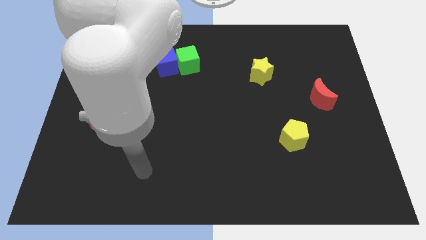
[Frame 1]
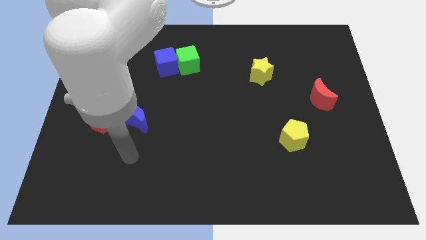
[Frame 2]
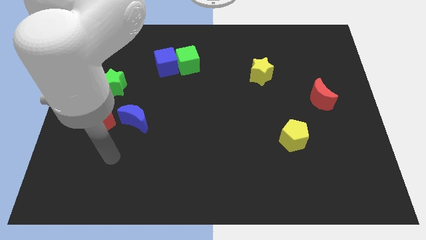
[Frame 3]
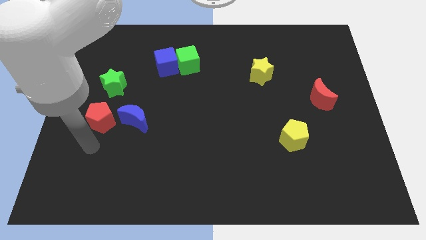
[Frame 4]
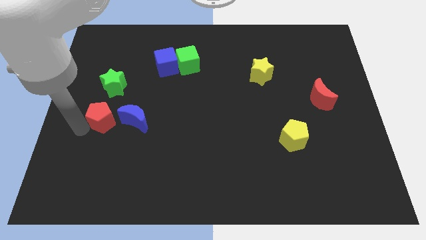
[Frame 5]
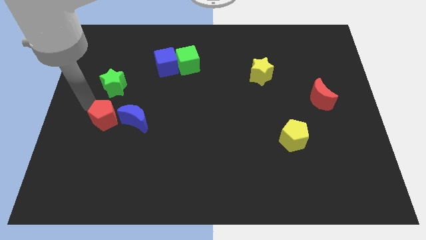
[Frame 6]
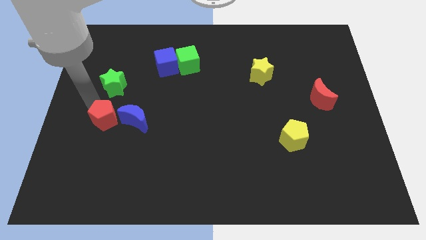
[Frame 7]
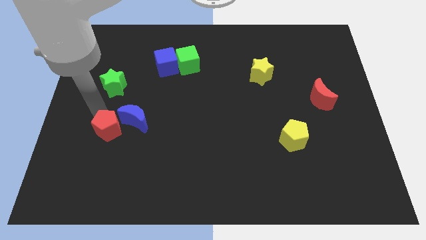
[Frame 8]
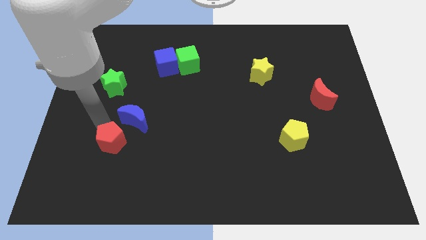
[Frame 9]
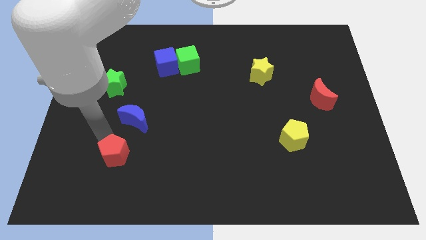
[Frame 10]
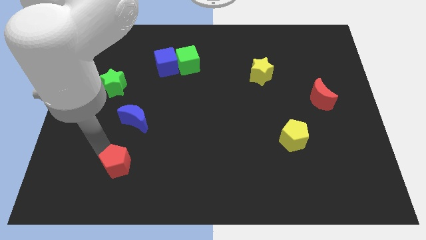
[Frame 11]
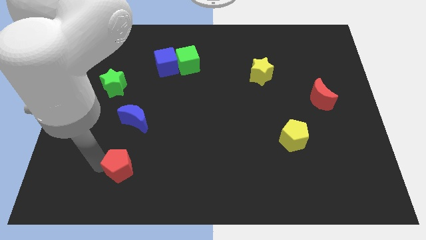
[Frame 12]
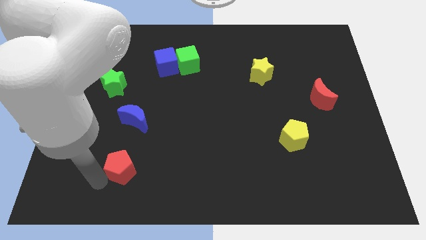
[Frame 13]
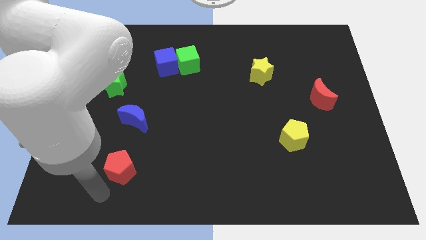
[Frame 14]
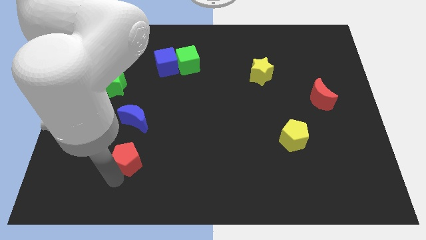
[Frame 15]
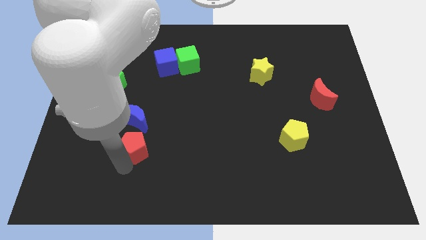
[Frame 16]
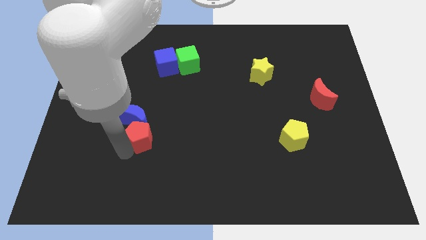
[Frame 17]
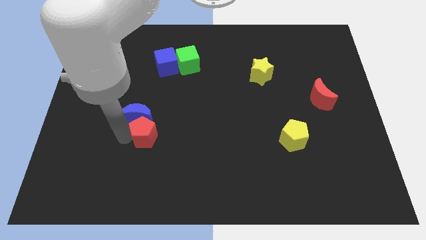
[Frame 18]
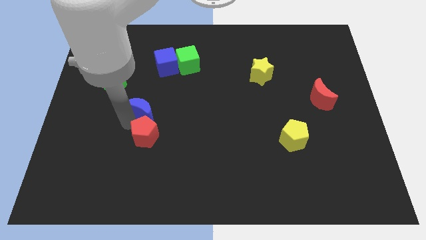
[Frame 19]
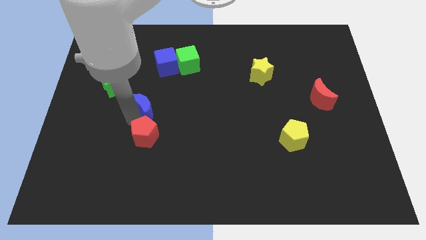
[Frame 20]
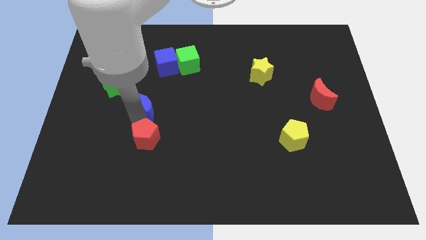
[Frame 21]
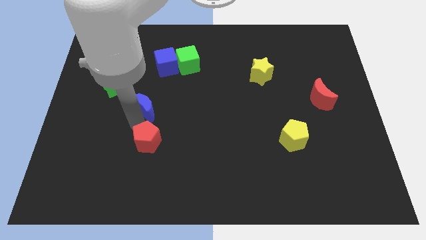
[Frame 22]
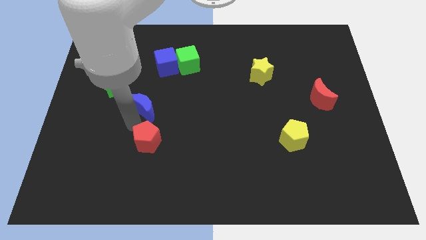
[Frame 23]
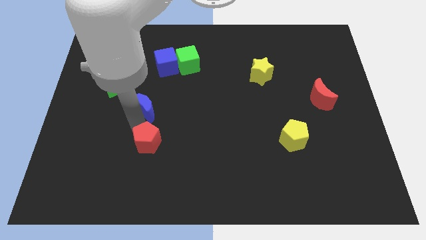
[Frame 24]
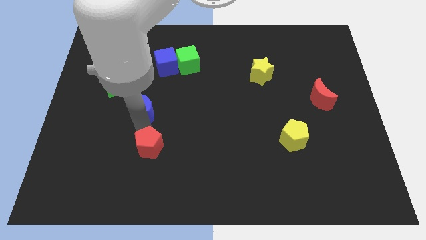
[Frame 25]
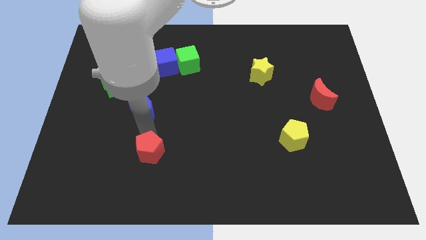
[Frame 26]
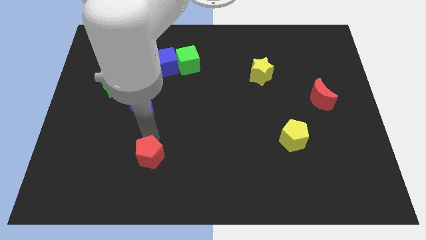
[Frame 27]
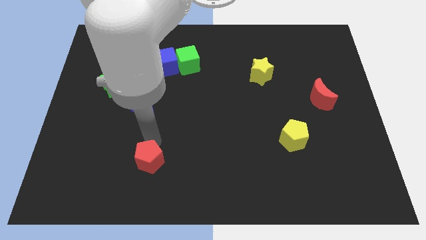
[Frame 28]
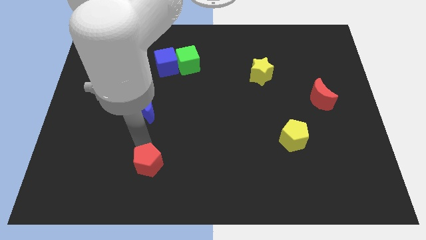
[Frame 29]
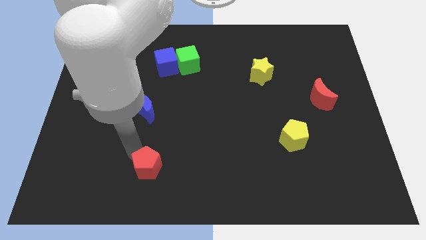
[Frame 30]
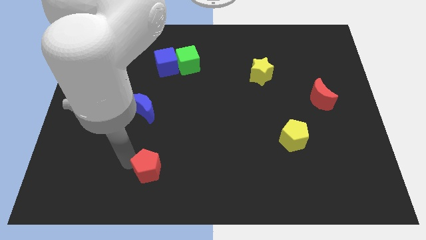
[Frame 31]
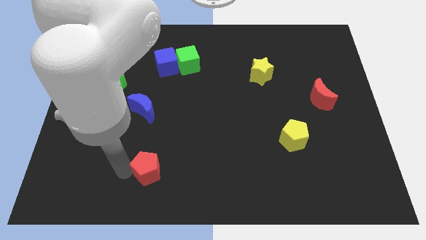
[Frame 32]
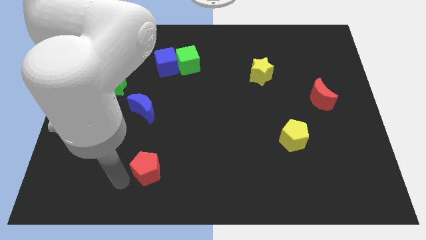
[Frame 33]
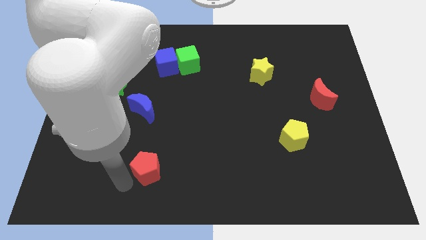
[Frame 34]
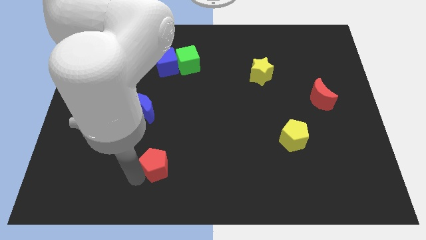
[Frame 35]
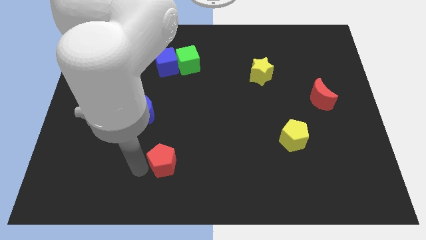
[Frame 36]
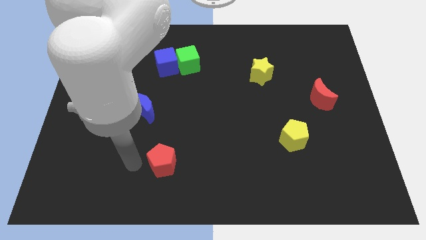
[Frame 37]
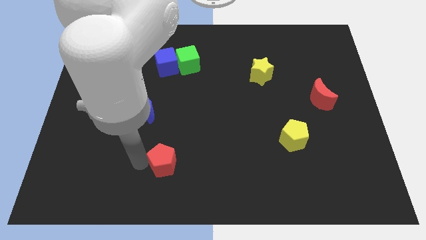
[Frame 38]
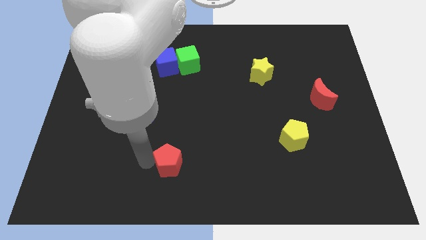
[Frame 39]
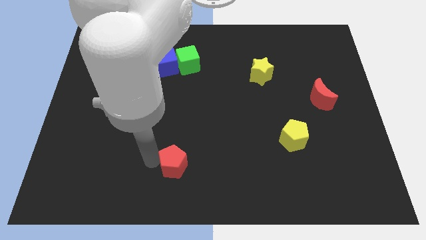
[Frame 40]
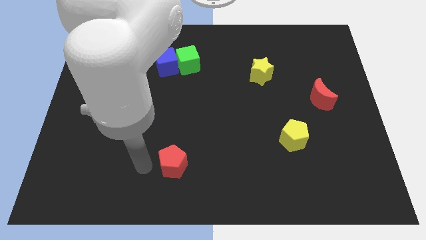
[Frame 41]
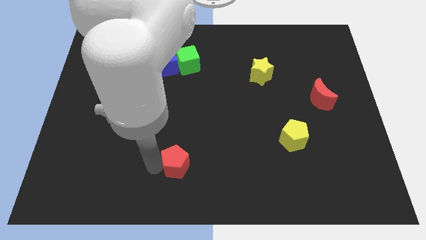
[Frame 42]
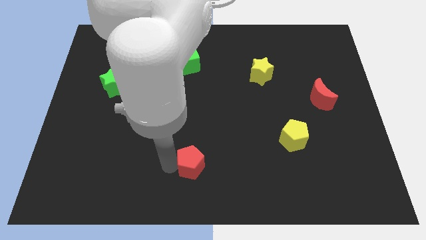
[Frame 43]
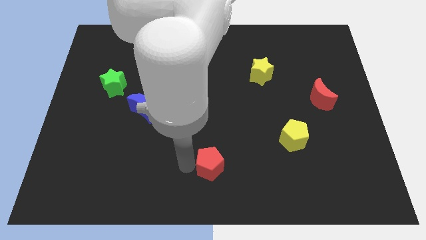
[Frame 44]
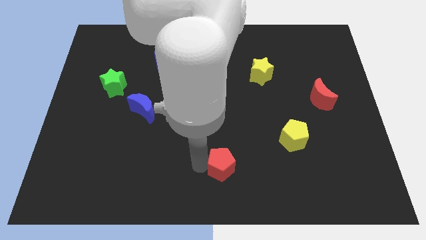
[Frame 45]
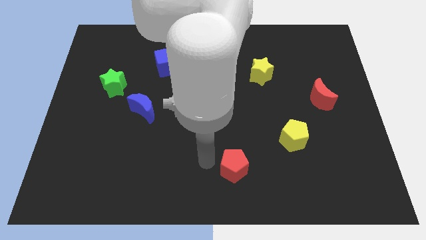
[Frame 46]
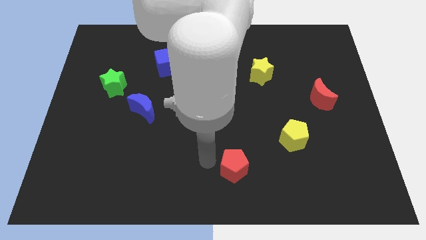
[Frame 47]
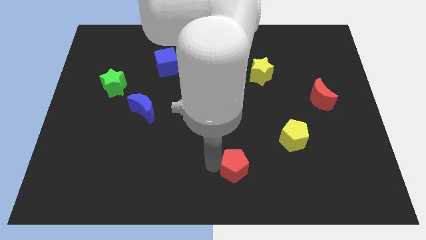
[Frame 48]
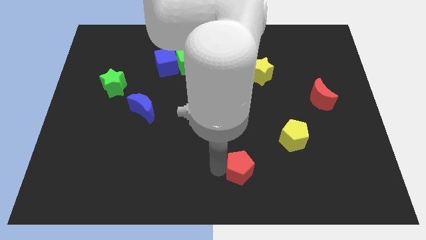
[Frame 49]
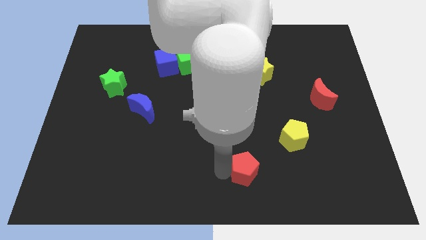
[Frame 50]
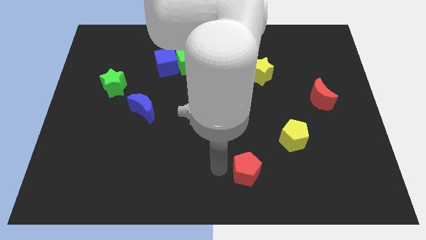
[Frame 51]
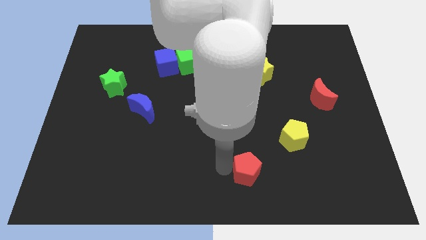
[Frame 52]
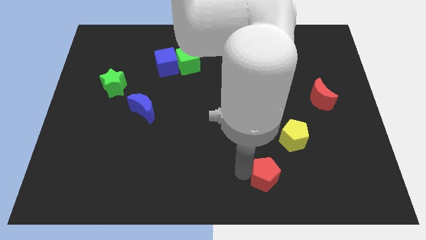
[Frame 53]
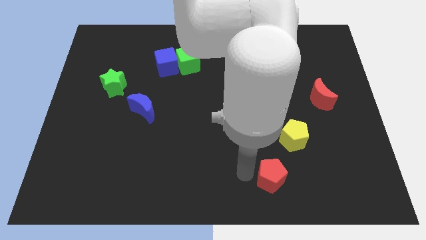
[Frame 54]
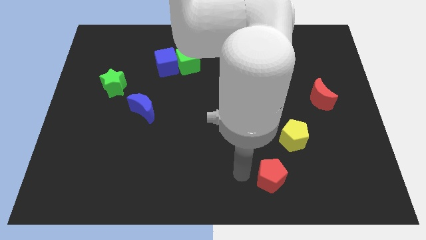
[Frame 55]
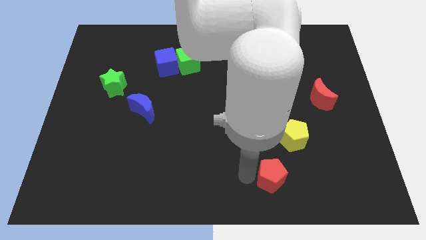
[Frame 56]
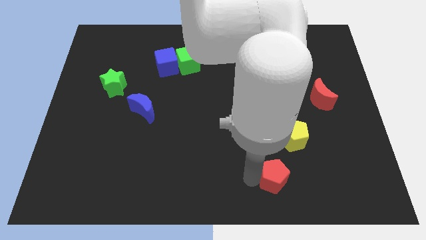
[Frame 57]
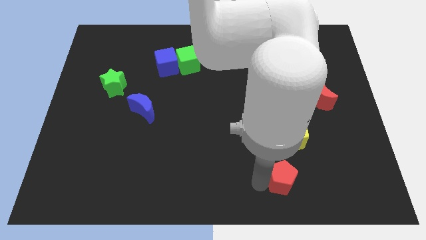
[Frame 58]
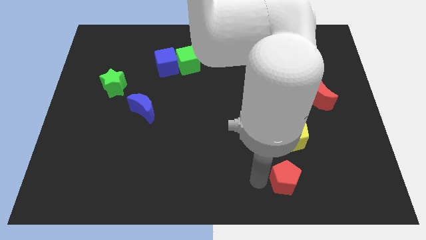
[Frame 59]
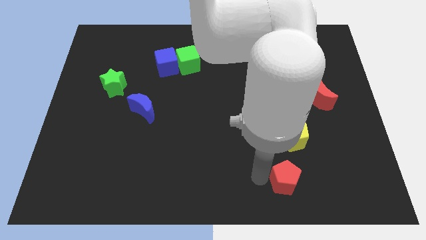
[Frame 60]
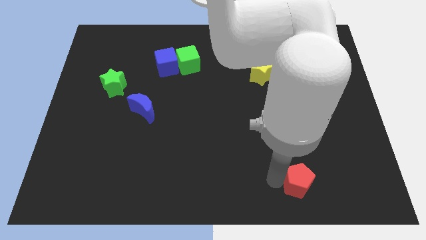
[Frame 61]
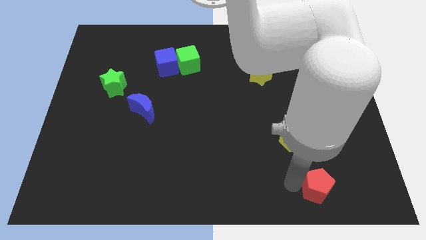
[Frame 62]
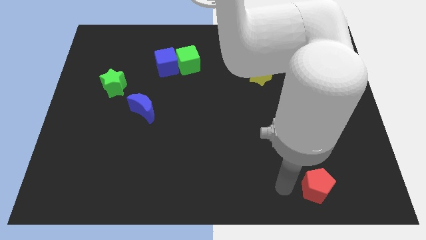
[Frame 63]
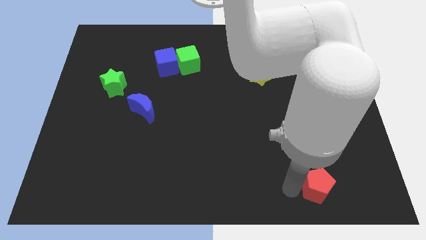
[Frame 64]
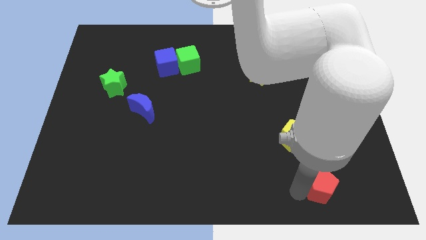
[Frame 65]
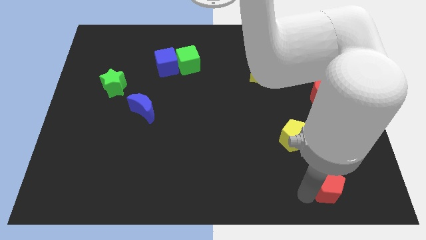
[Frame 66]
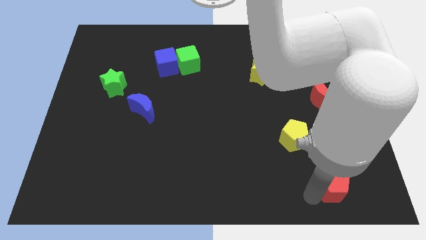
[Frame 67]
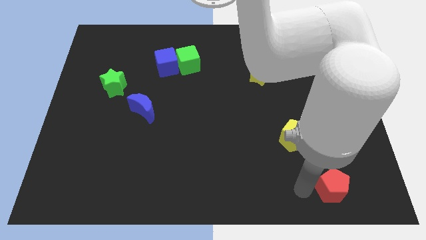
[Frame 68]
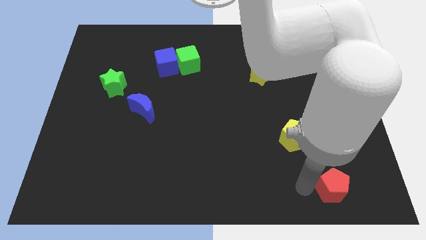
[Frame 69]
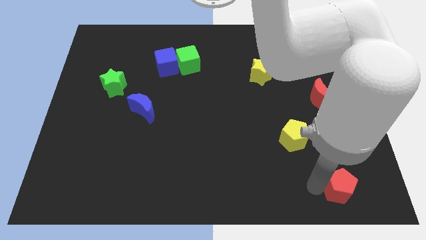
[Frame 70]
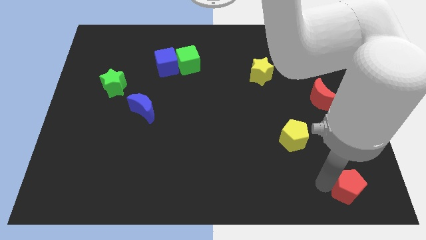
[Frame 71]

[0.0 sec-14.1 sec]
put the red pentagon to the bottom right of the board
